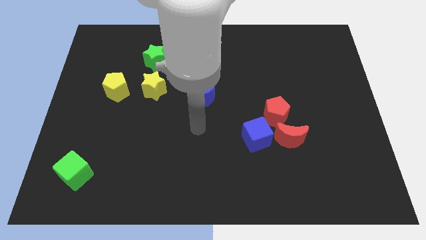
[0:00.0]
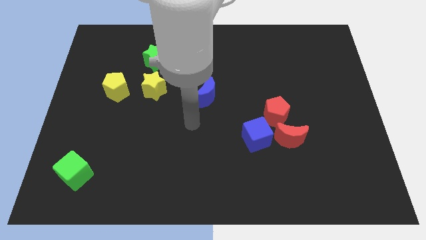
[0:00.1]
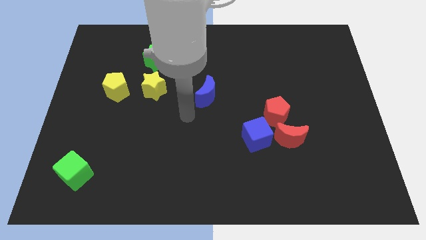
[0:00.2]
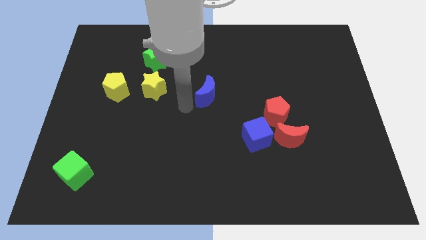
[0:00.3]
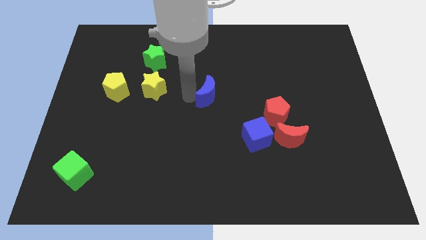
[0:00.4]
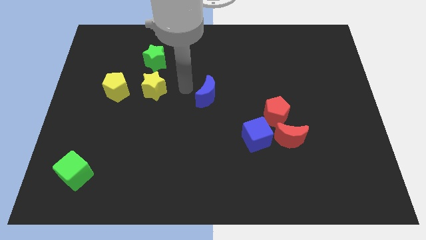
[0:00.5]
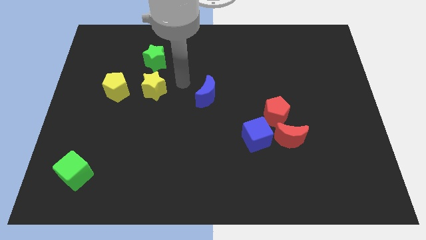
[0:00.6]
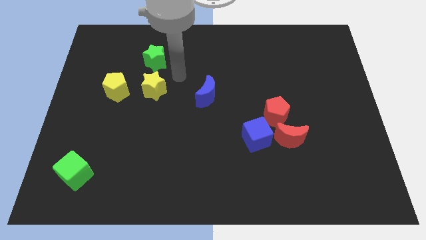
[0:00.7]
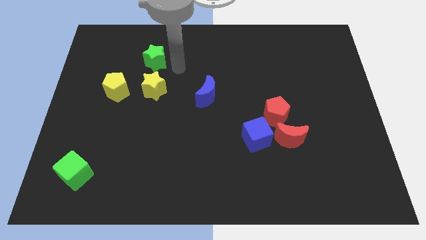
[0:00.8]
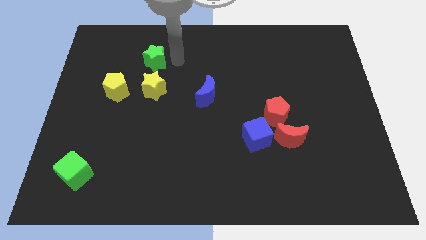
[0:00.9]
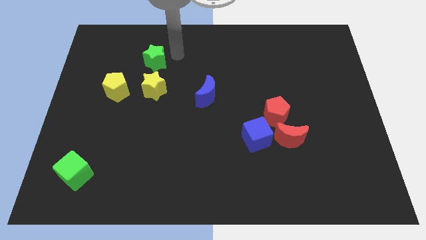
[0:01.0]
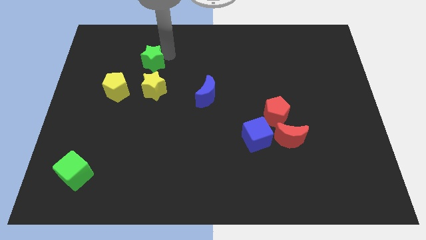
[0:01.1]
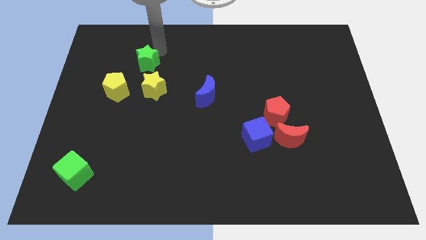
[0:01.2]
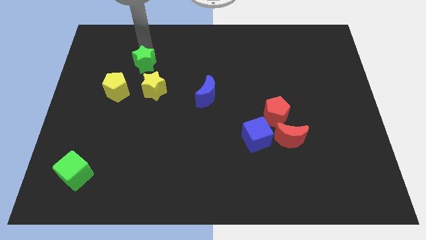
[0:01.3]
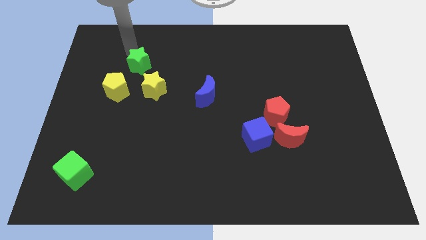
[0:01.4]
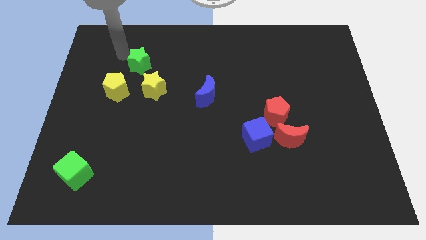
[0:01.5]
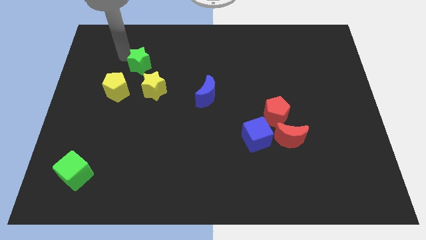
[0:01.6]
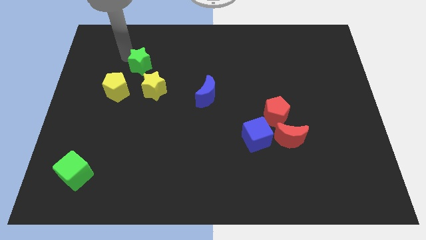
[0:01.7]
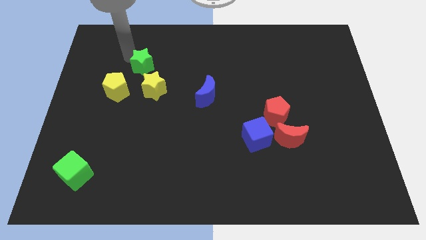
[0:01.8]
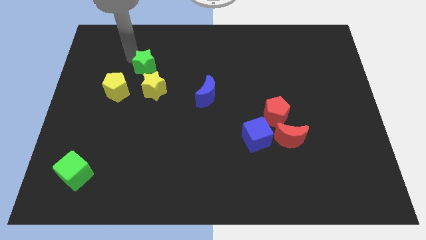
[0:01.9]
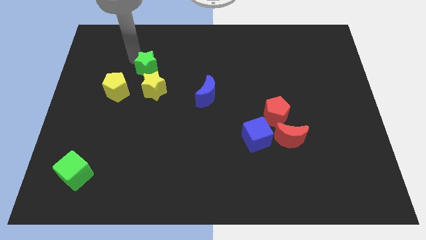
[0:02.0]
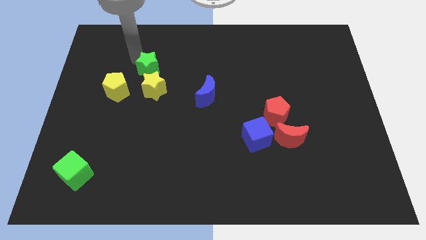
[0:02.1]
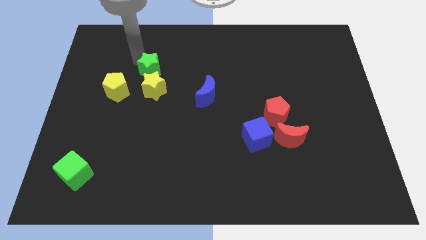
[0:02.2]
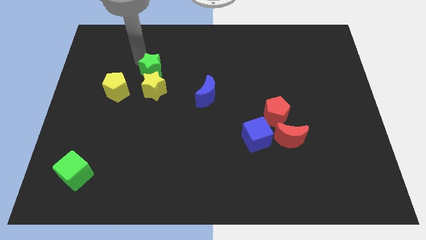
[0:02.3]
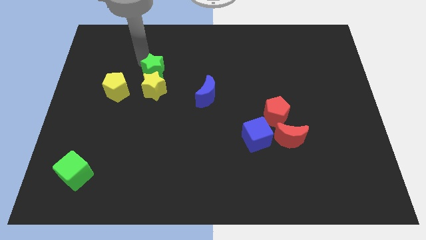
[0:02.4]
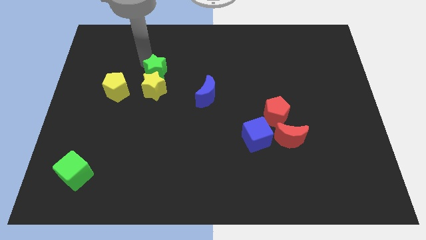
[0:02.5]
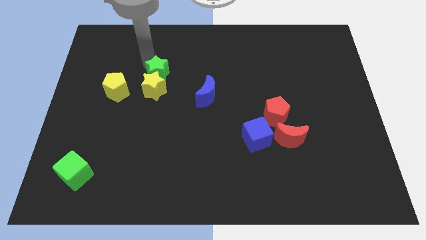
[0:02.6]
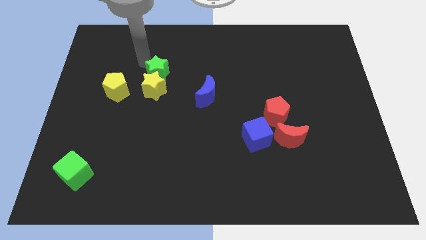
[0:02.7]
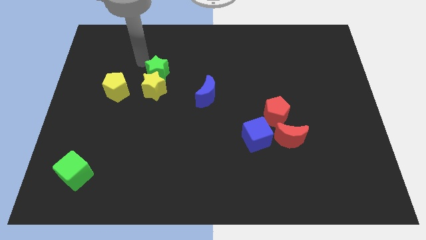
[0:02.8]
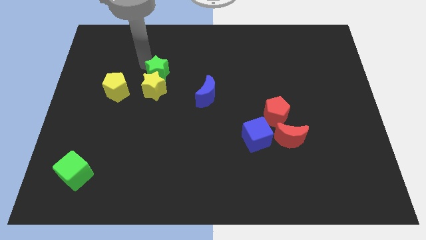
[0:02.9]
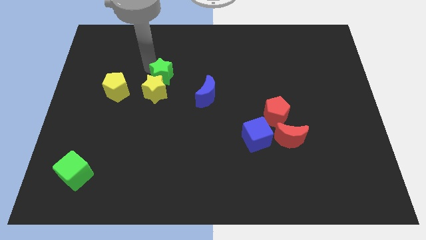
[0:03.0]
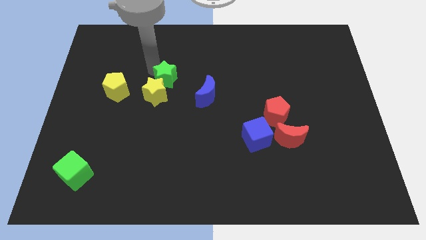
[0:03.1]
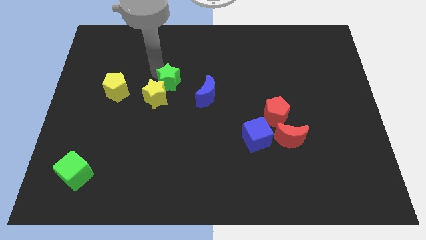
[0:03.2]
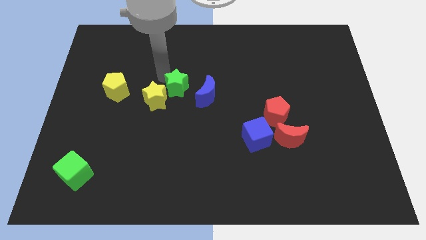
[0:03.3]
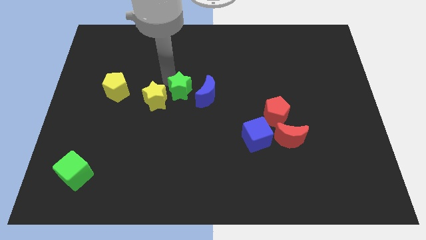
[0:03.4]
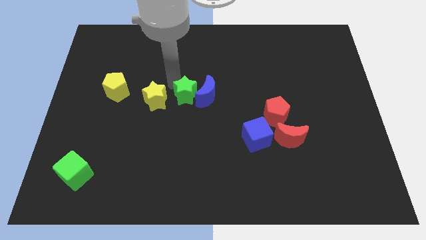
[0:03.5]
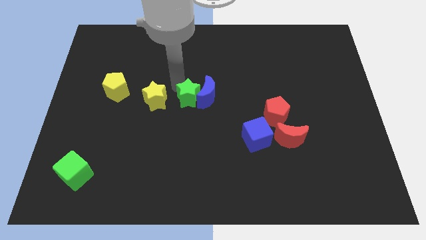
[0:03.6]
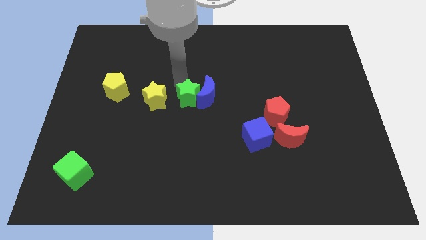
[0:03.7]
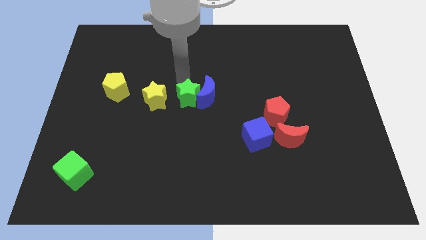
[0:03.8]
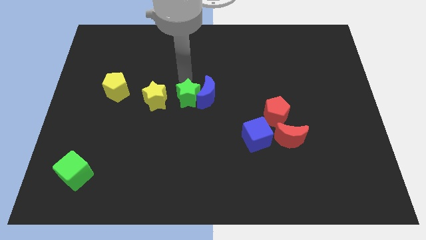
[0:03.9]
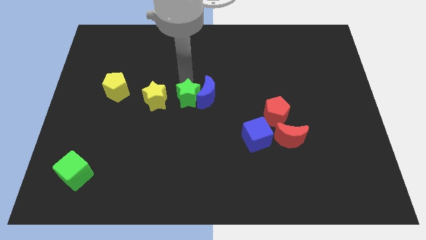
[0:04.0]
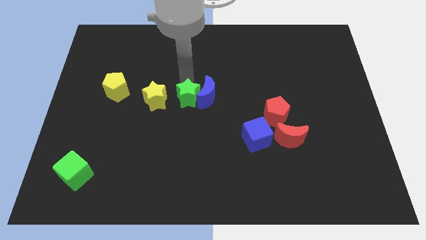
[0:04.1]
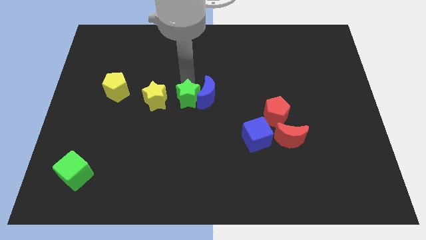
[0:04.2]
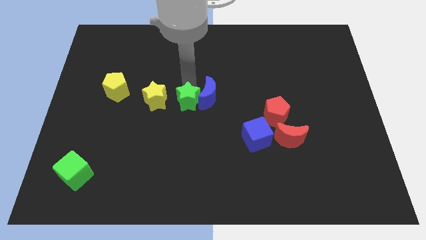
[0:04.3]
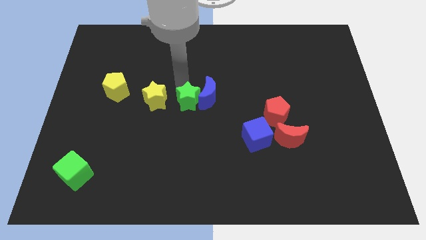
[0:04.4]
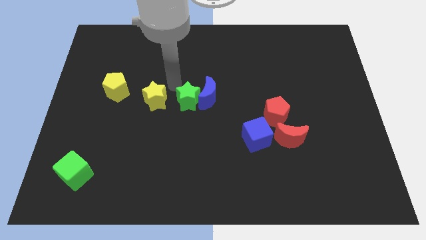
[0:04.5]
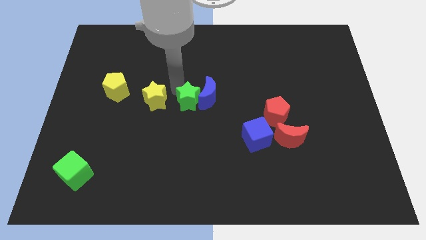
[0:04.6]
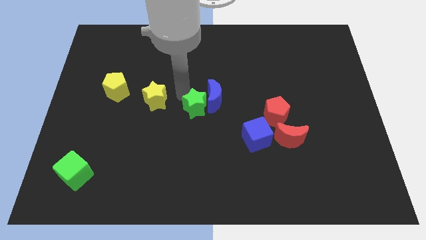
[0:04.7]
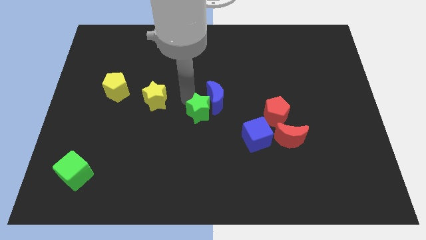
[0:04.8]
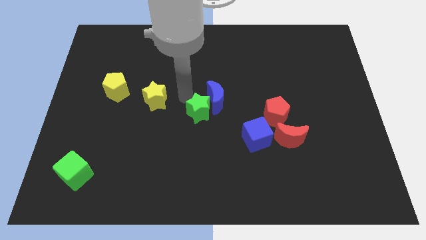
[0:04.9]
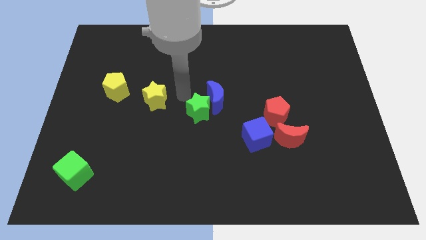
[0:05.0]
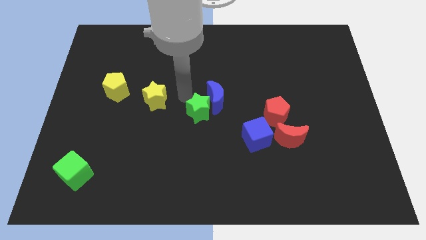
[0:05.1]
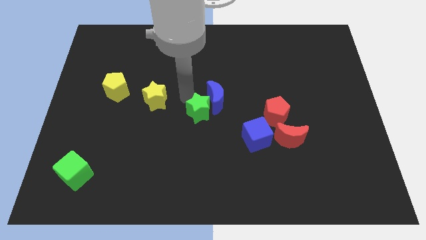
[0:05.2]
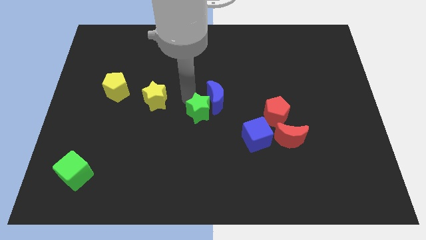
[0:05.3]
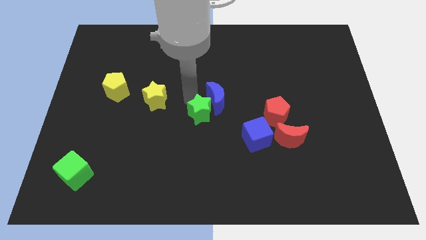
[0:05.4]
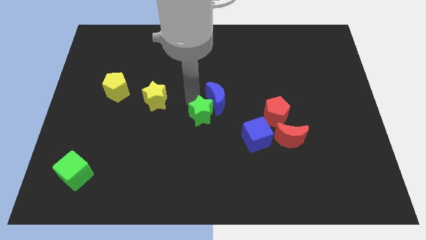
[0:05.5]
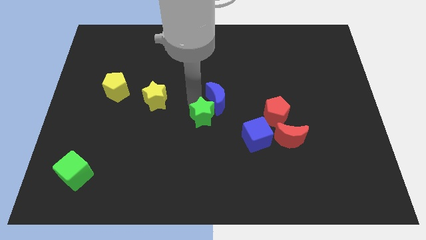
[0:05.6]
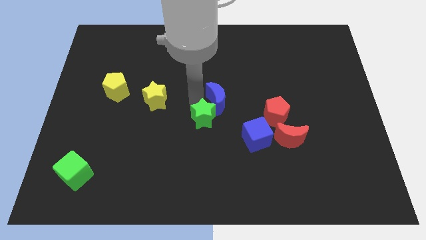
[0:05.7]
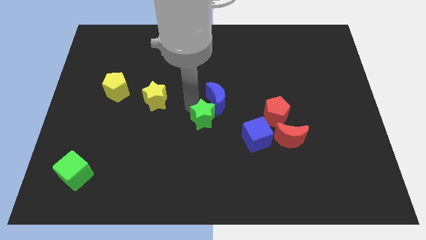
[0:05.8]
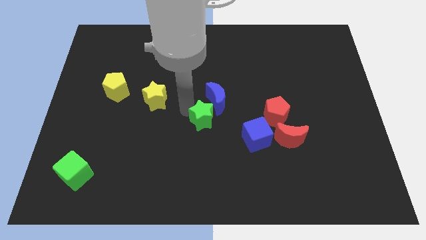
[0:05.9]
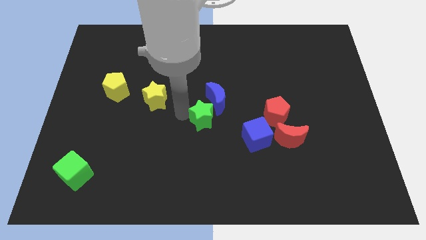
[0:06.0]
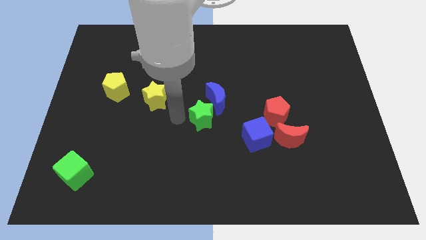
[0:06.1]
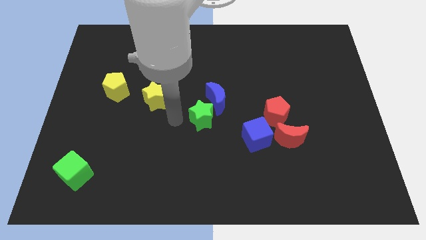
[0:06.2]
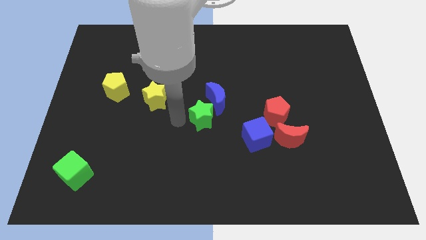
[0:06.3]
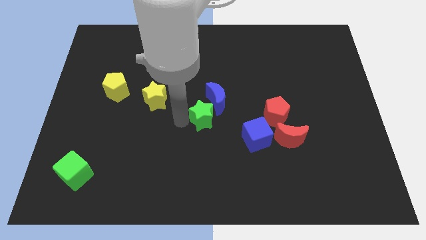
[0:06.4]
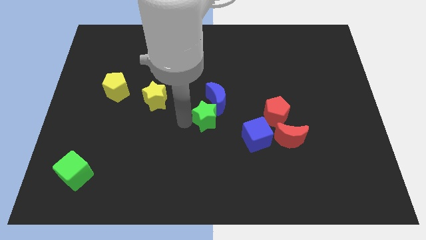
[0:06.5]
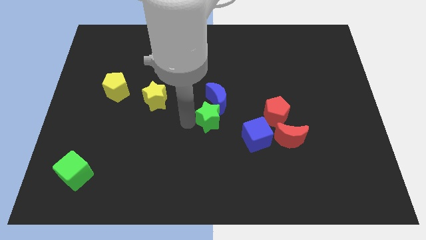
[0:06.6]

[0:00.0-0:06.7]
push the green star to the top left of the blue cube

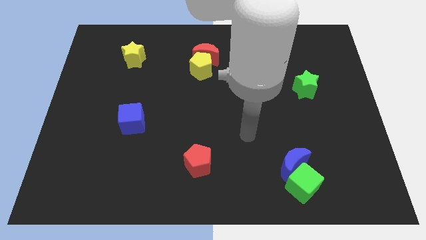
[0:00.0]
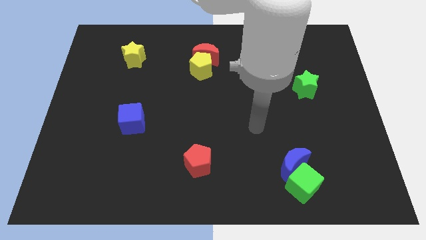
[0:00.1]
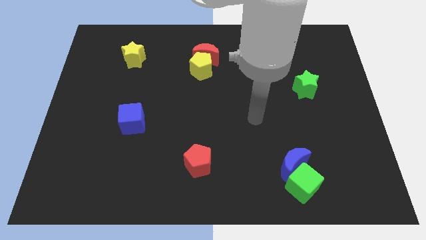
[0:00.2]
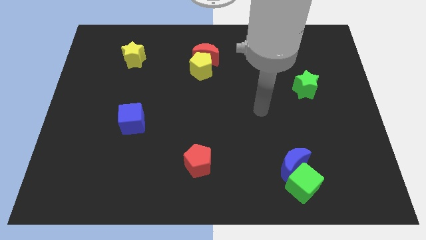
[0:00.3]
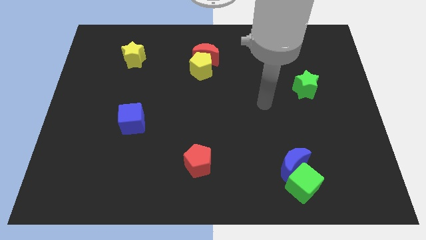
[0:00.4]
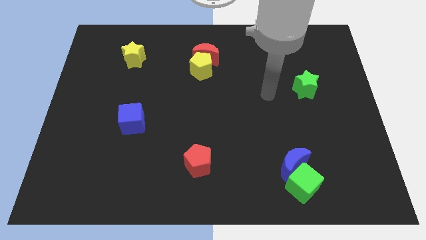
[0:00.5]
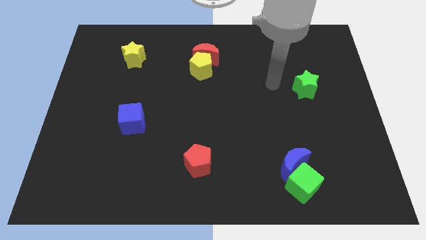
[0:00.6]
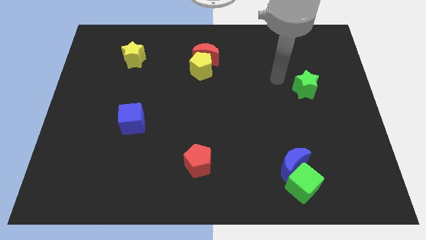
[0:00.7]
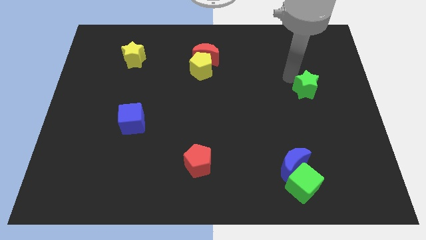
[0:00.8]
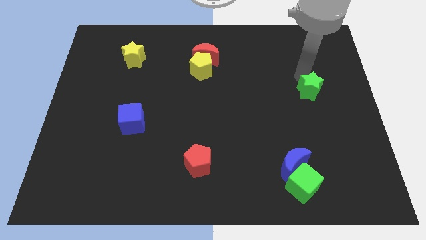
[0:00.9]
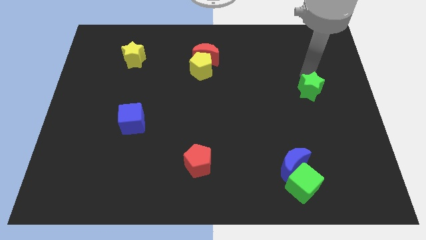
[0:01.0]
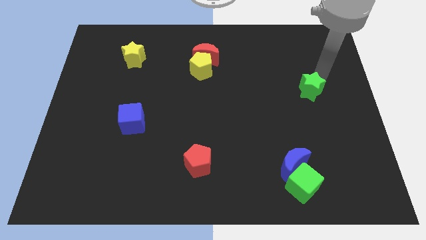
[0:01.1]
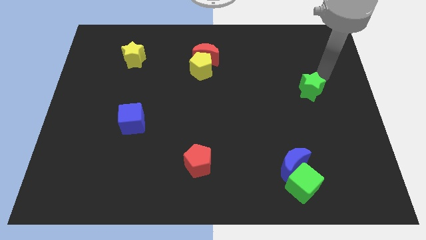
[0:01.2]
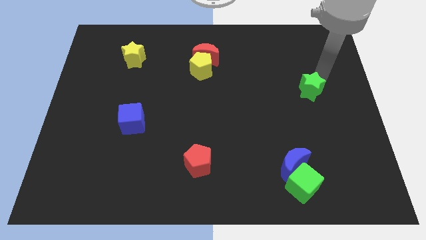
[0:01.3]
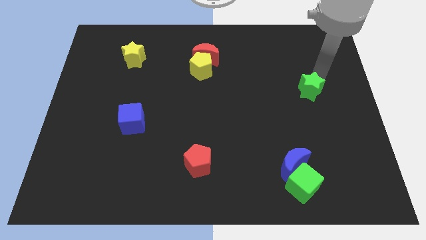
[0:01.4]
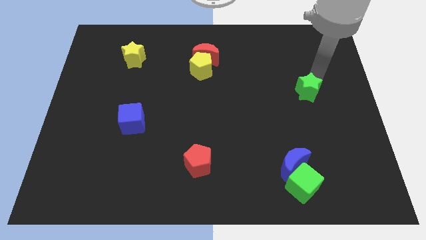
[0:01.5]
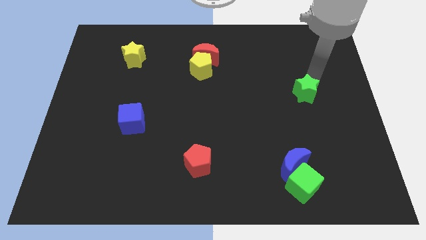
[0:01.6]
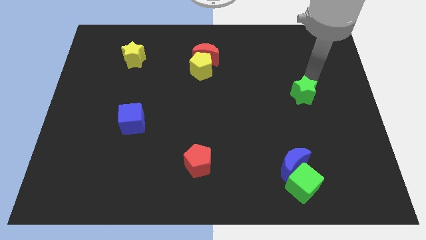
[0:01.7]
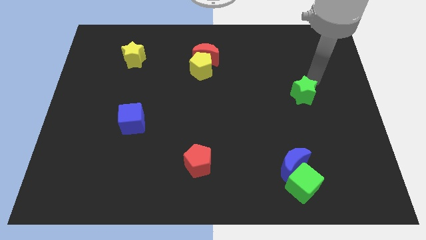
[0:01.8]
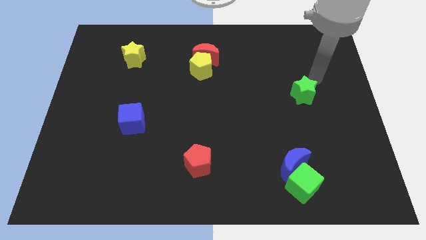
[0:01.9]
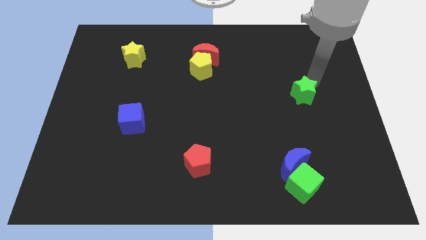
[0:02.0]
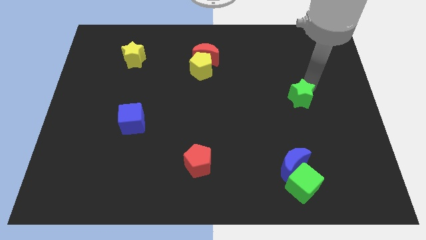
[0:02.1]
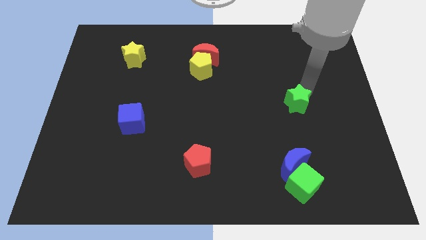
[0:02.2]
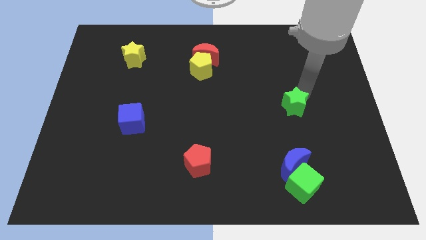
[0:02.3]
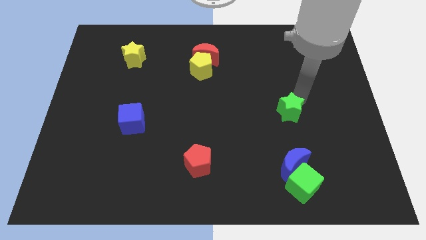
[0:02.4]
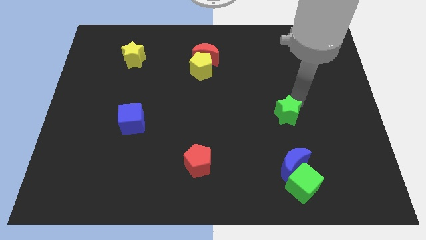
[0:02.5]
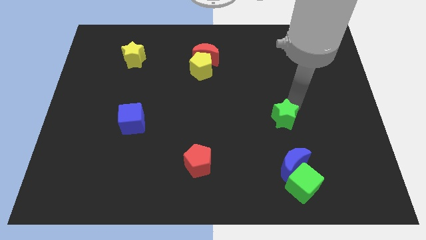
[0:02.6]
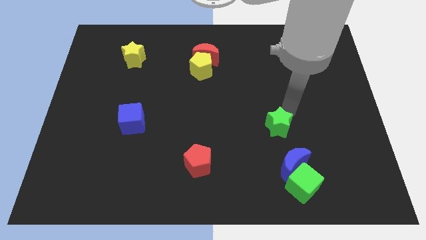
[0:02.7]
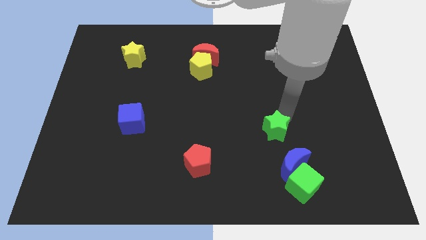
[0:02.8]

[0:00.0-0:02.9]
move the green star diagonally up and to the left of the blue moon
